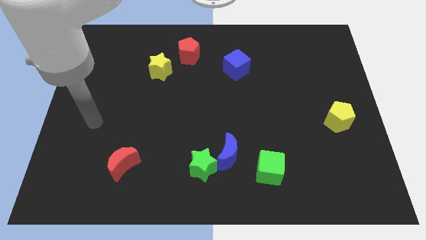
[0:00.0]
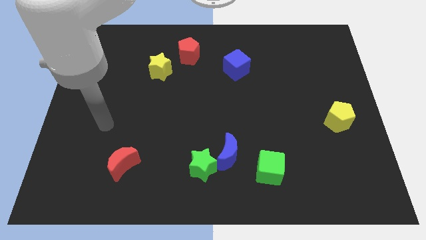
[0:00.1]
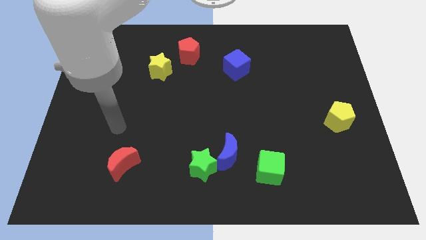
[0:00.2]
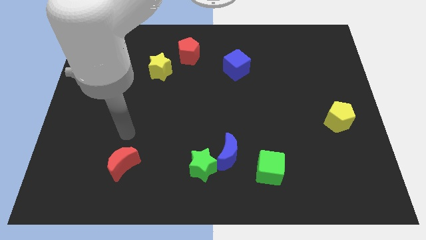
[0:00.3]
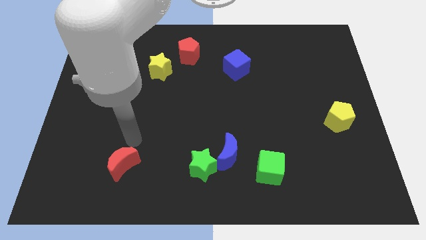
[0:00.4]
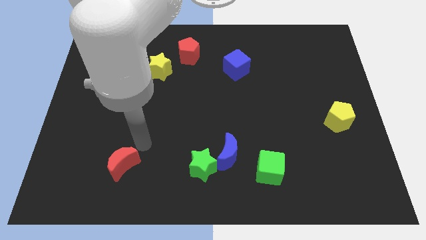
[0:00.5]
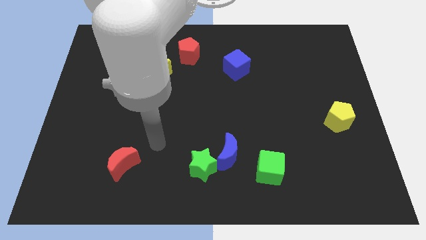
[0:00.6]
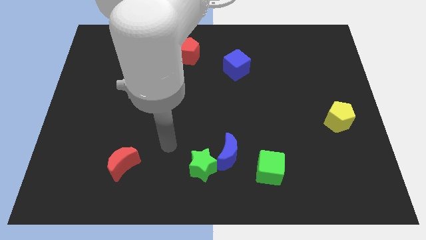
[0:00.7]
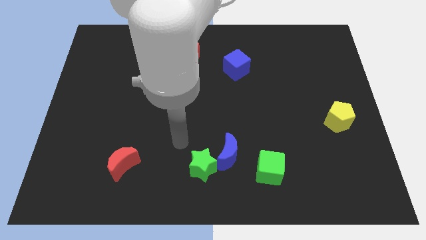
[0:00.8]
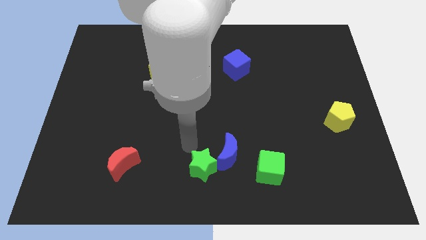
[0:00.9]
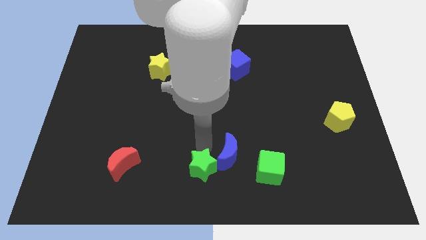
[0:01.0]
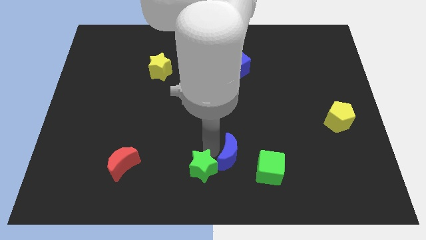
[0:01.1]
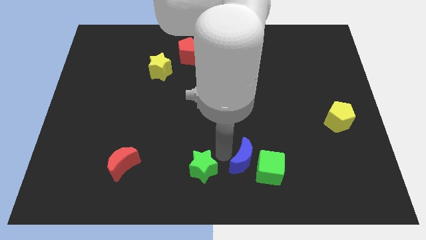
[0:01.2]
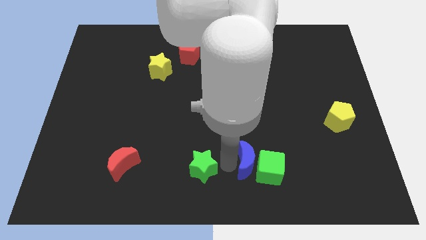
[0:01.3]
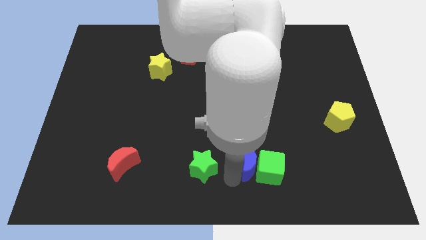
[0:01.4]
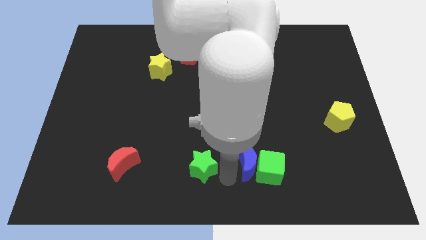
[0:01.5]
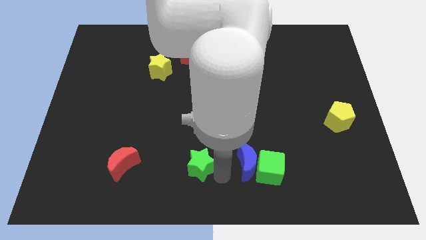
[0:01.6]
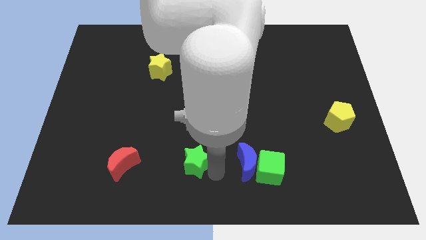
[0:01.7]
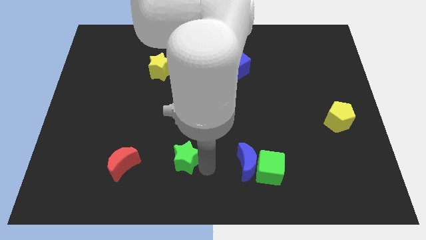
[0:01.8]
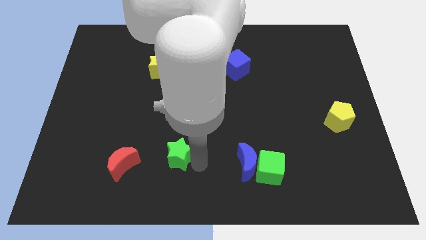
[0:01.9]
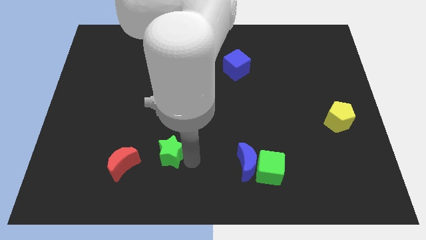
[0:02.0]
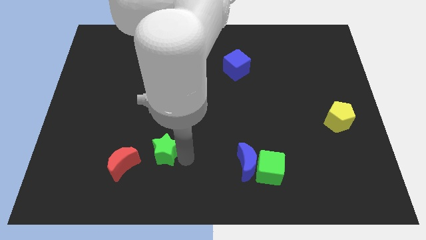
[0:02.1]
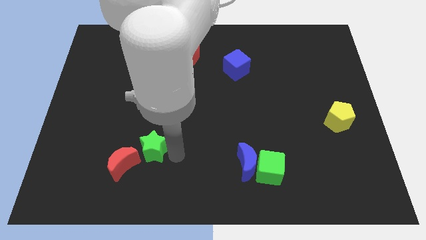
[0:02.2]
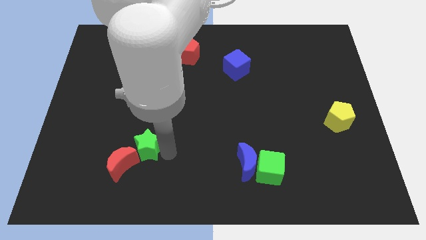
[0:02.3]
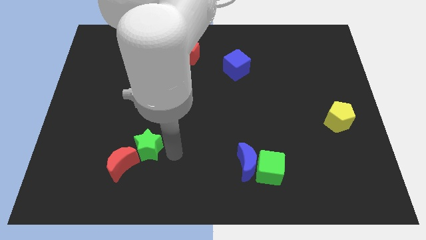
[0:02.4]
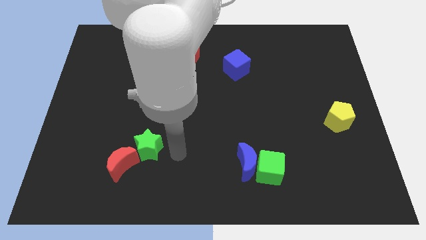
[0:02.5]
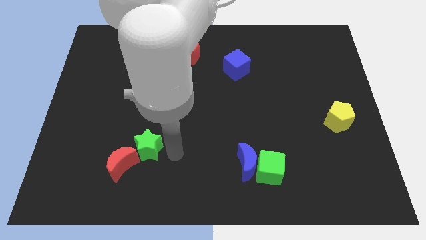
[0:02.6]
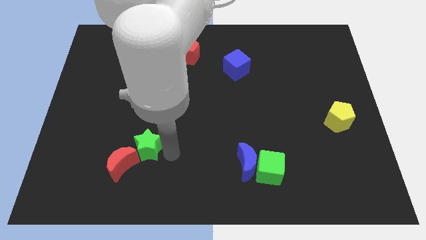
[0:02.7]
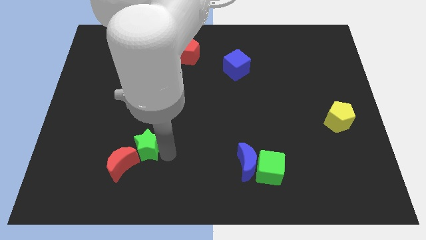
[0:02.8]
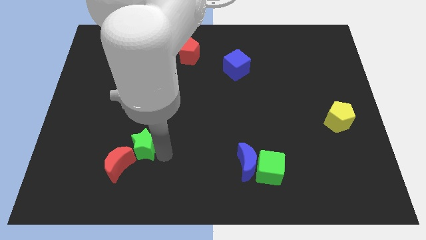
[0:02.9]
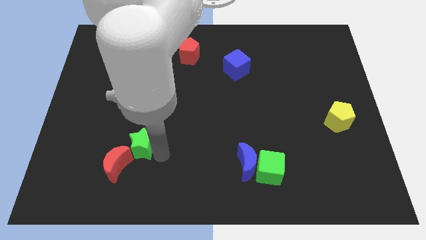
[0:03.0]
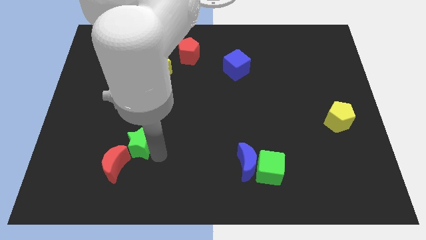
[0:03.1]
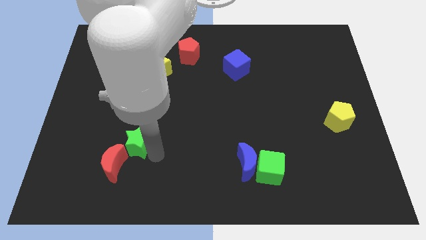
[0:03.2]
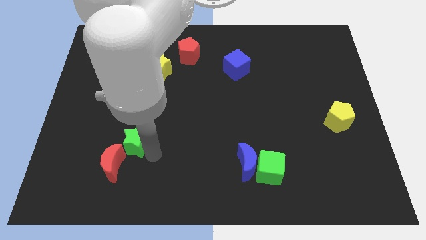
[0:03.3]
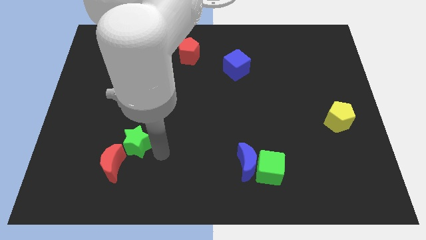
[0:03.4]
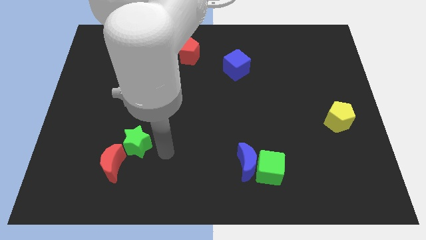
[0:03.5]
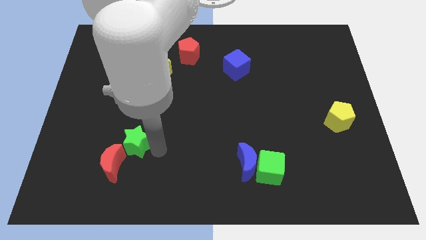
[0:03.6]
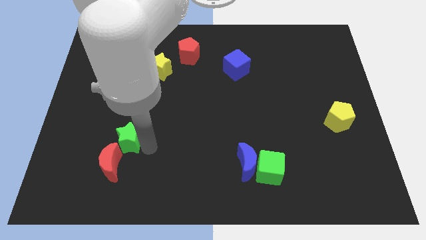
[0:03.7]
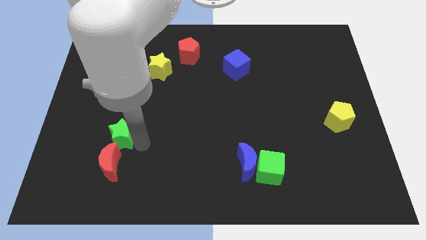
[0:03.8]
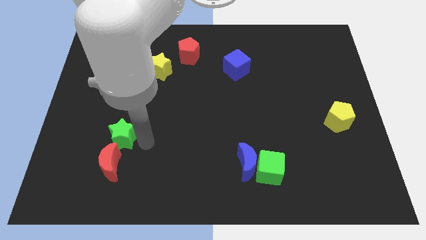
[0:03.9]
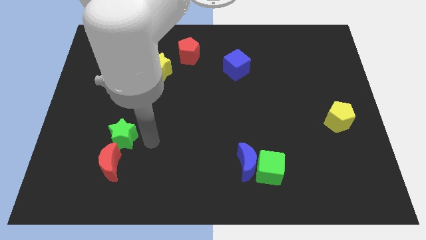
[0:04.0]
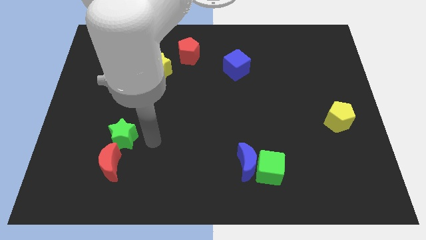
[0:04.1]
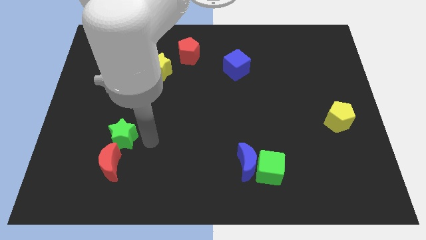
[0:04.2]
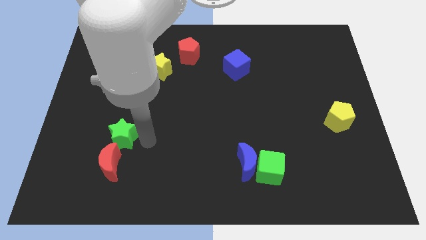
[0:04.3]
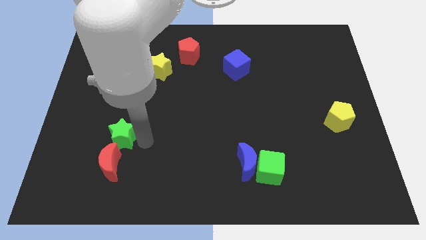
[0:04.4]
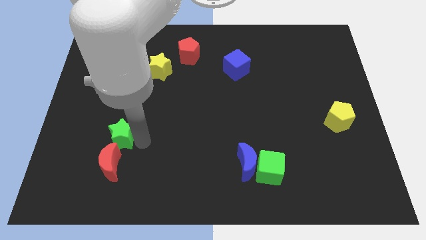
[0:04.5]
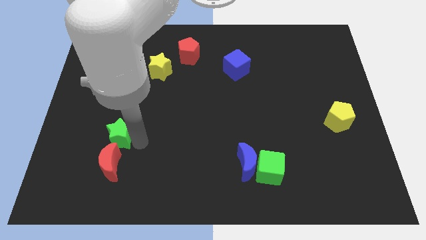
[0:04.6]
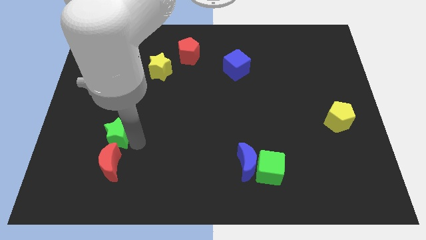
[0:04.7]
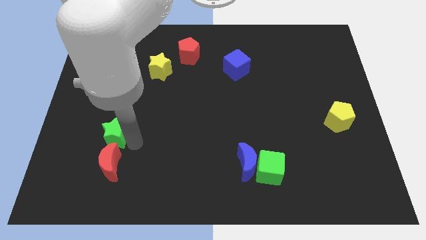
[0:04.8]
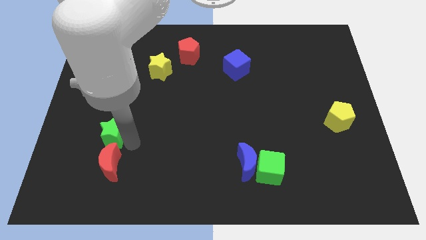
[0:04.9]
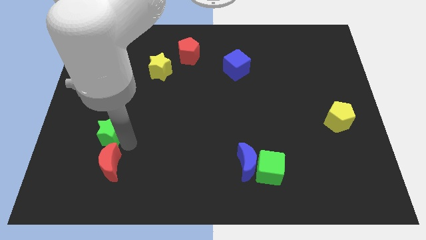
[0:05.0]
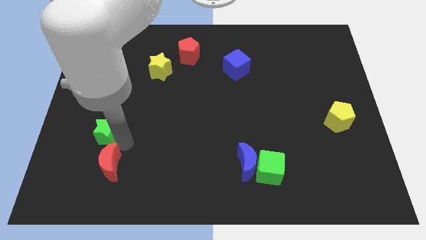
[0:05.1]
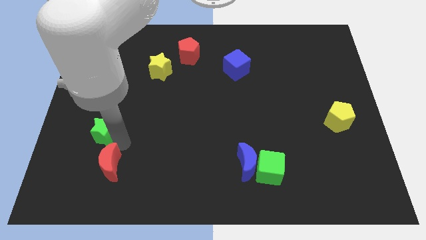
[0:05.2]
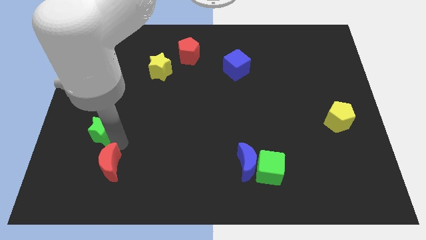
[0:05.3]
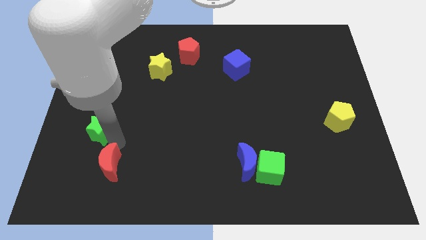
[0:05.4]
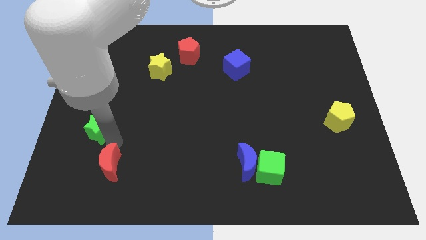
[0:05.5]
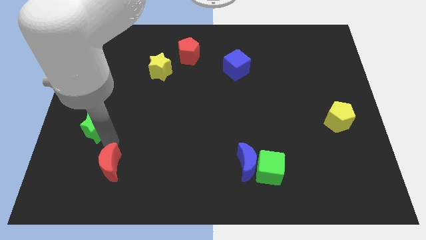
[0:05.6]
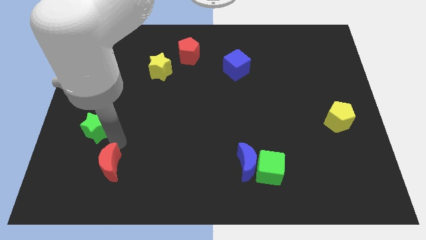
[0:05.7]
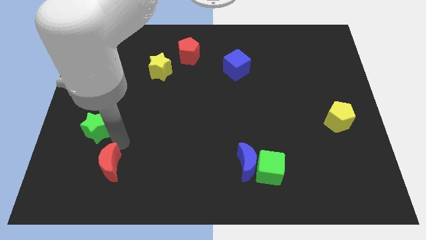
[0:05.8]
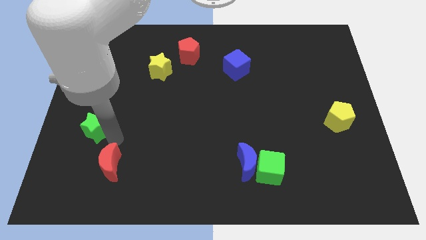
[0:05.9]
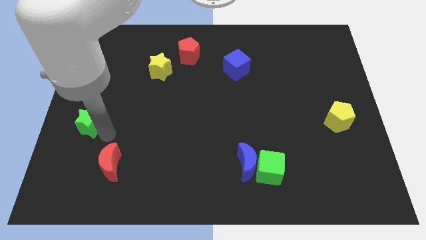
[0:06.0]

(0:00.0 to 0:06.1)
move the green star to the left side of the board
